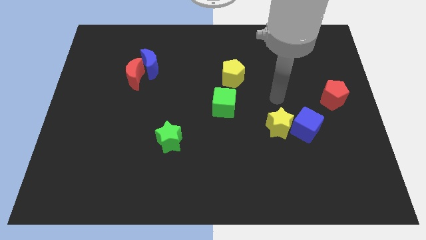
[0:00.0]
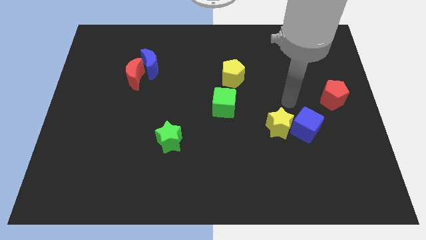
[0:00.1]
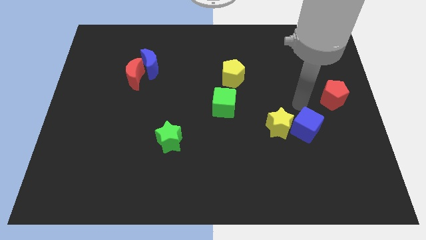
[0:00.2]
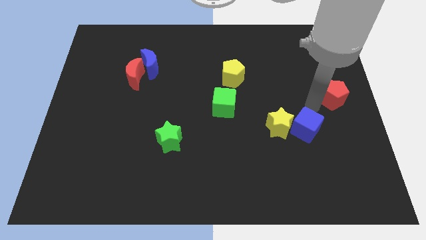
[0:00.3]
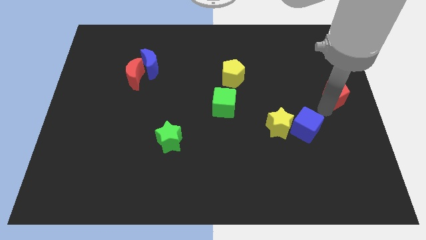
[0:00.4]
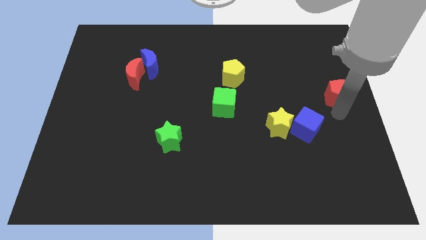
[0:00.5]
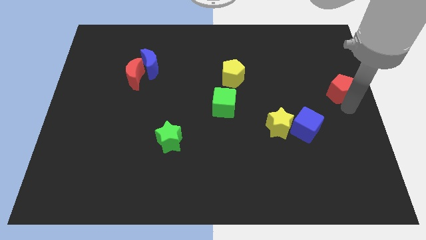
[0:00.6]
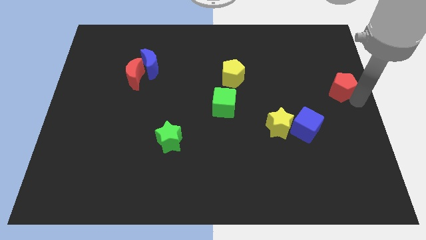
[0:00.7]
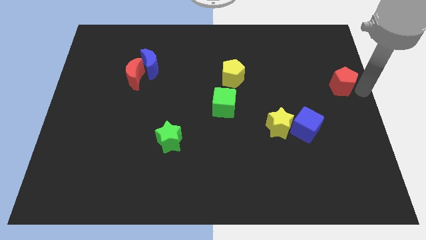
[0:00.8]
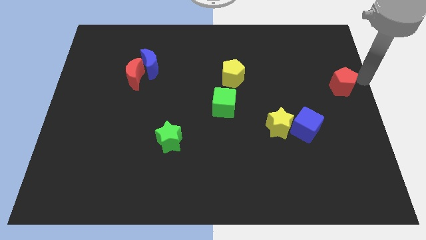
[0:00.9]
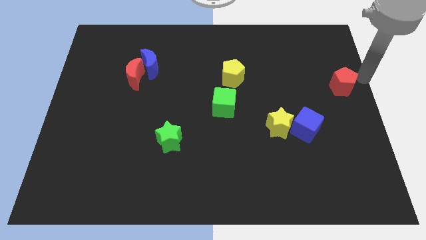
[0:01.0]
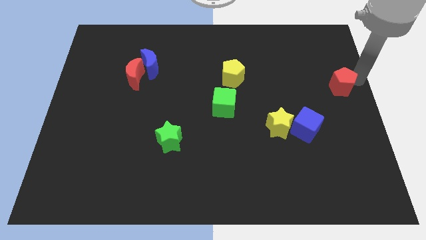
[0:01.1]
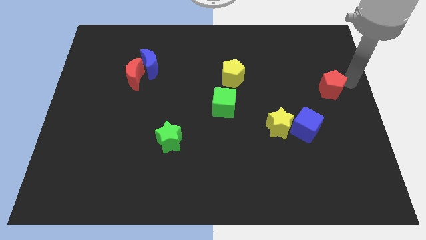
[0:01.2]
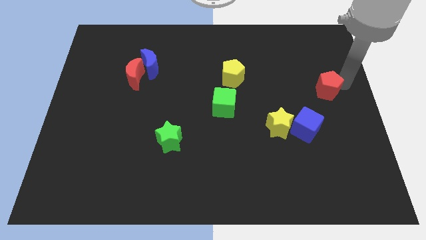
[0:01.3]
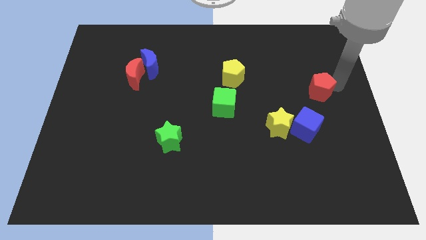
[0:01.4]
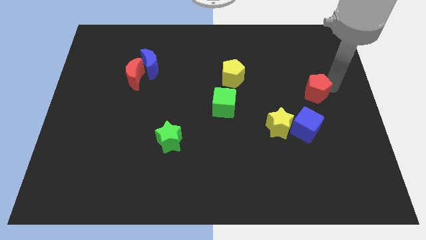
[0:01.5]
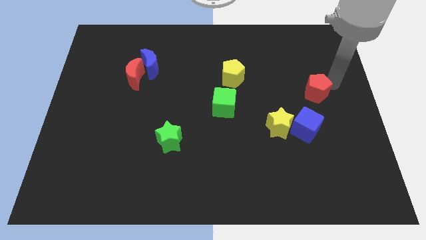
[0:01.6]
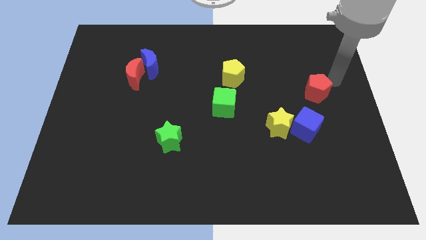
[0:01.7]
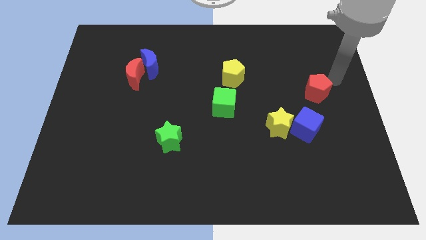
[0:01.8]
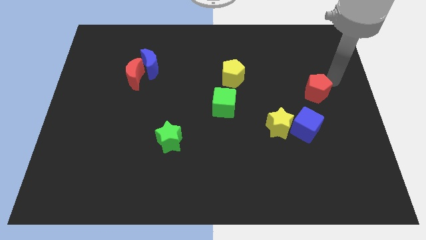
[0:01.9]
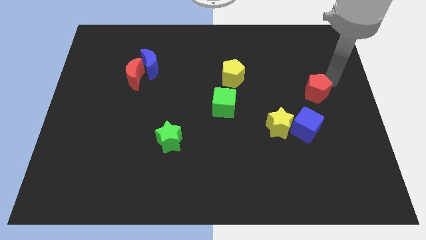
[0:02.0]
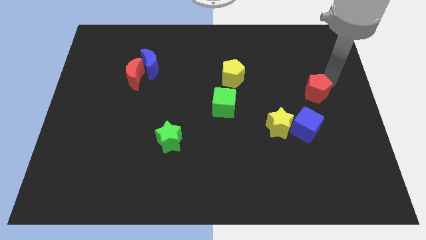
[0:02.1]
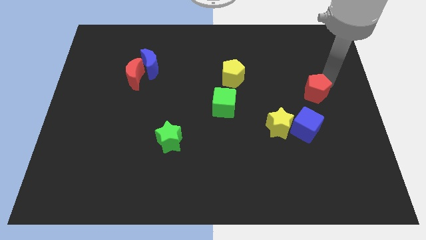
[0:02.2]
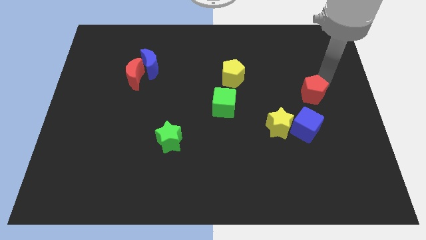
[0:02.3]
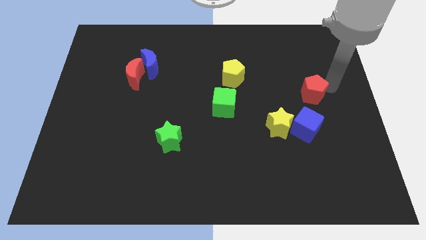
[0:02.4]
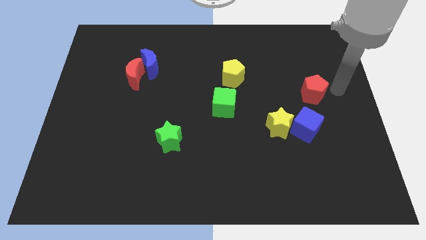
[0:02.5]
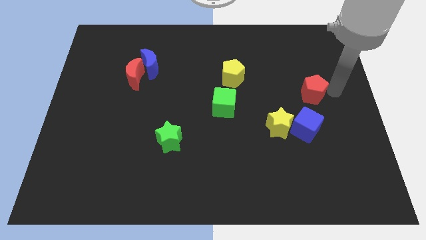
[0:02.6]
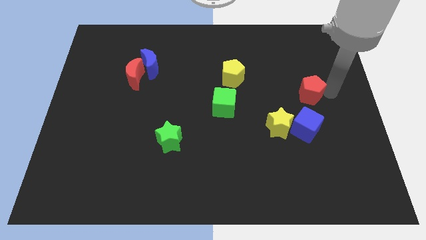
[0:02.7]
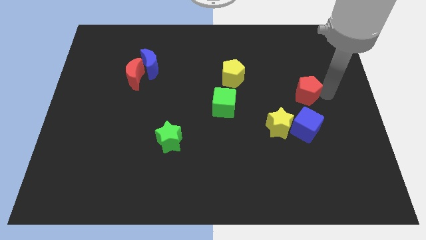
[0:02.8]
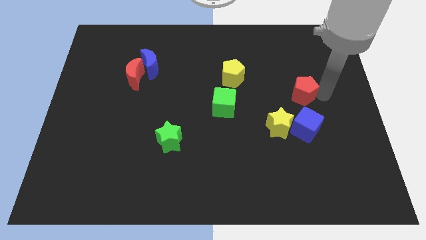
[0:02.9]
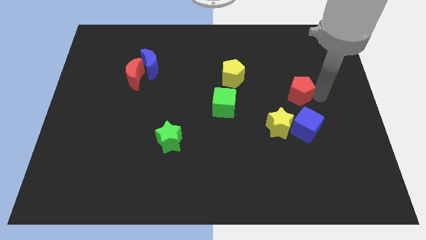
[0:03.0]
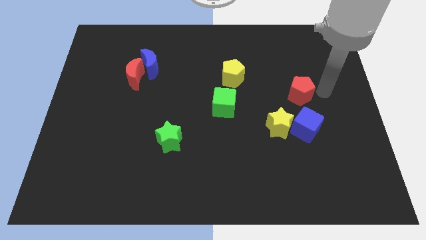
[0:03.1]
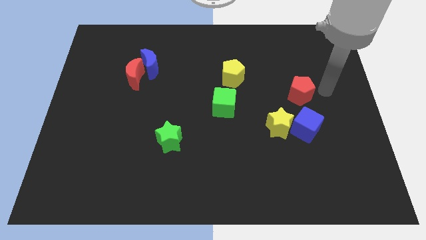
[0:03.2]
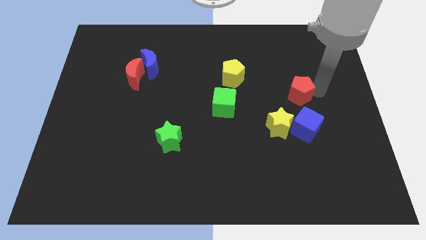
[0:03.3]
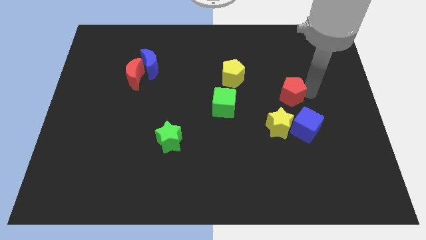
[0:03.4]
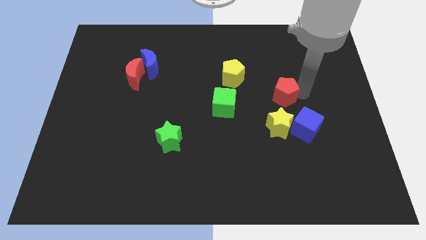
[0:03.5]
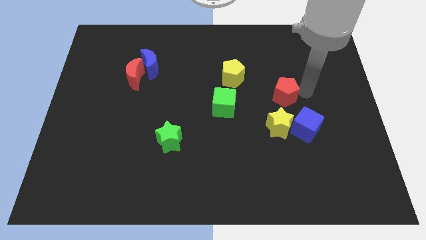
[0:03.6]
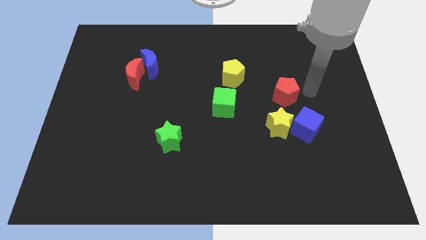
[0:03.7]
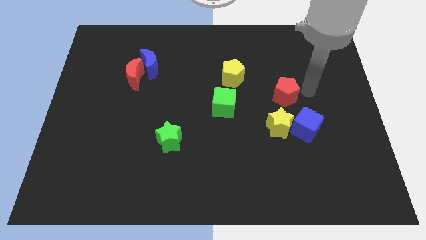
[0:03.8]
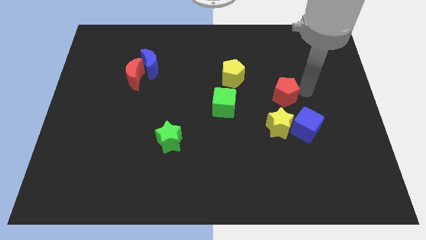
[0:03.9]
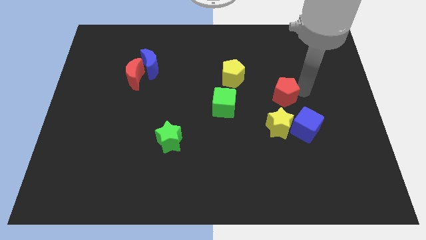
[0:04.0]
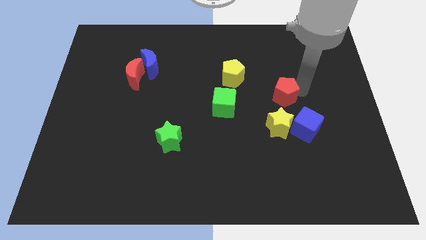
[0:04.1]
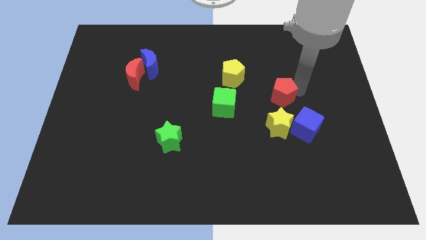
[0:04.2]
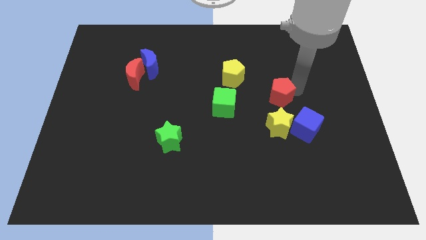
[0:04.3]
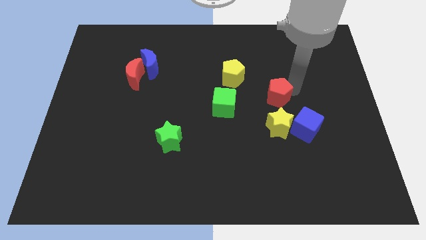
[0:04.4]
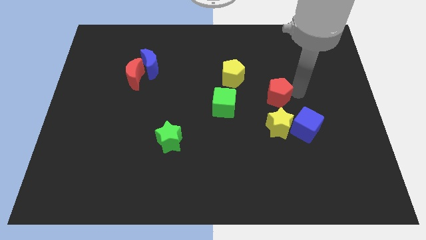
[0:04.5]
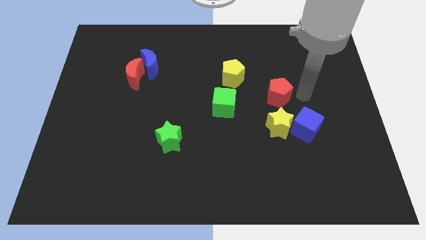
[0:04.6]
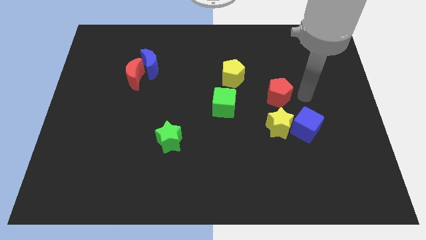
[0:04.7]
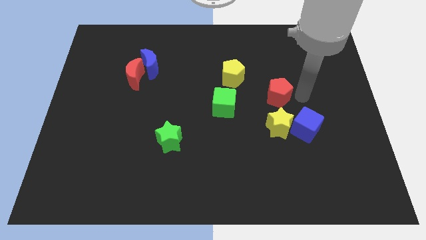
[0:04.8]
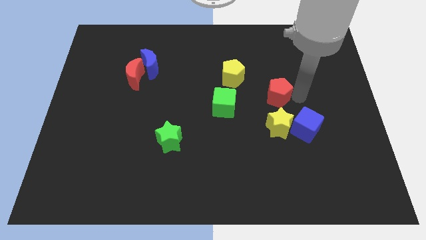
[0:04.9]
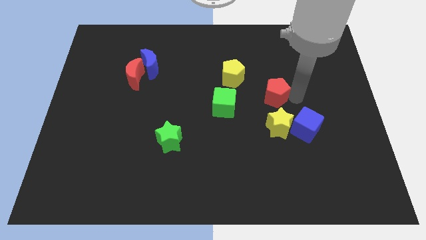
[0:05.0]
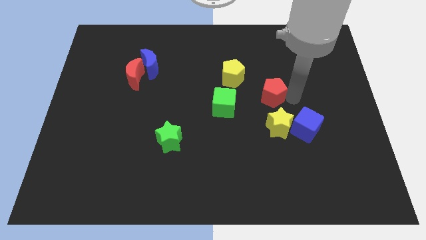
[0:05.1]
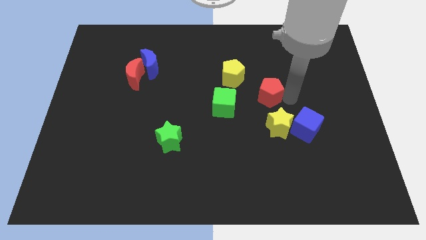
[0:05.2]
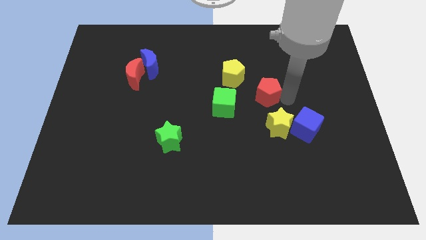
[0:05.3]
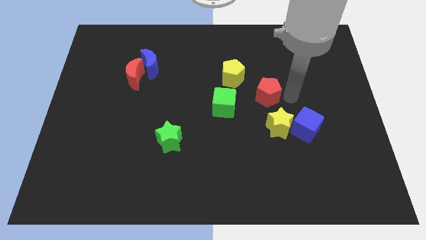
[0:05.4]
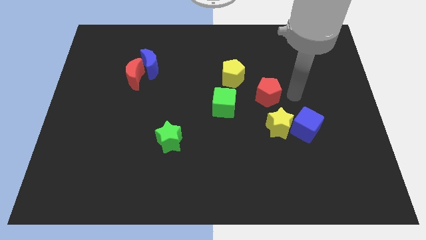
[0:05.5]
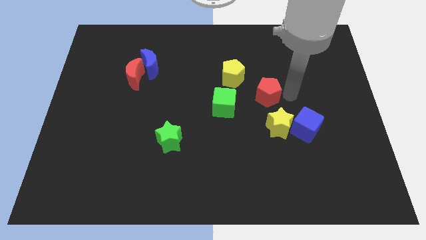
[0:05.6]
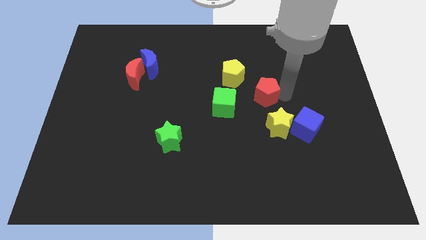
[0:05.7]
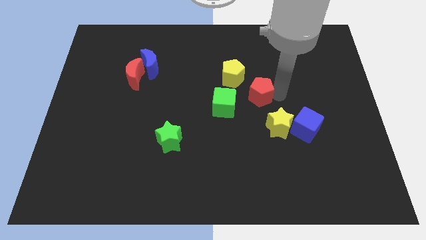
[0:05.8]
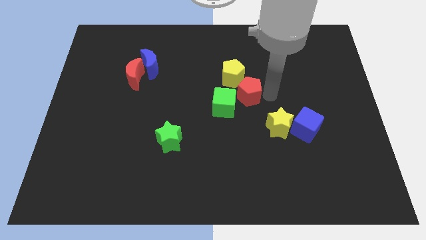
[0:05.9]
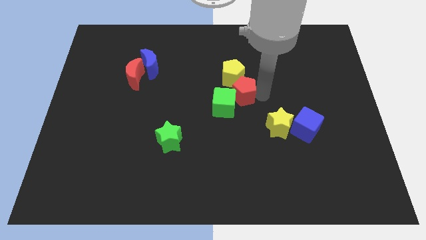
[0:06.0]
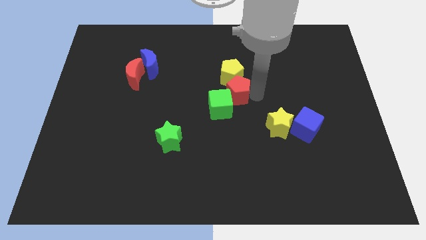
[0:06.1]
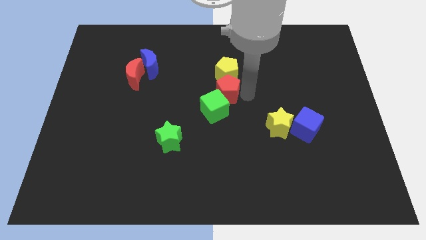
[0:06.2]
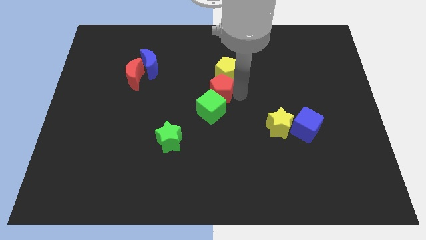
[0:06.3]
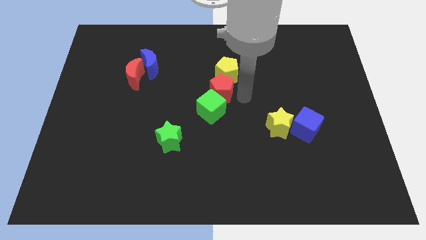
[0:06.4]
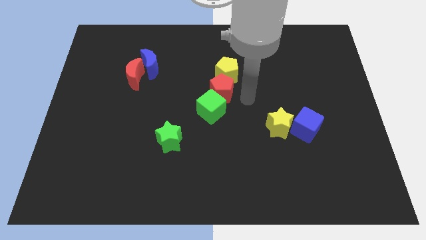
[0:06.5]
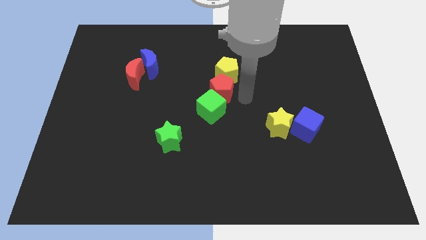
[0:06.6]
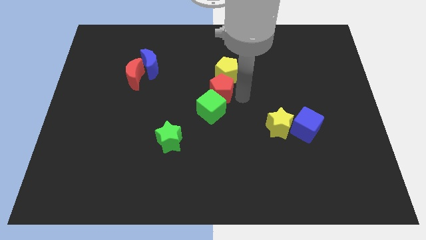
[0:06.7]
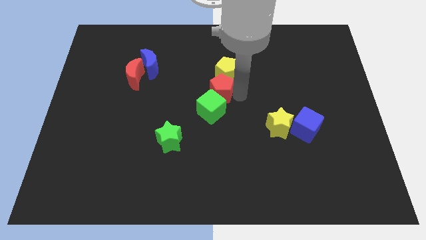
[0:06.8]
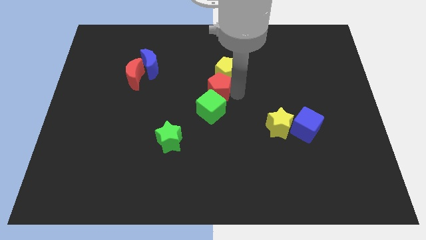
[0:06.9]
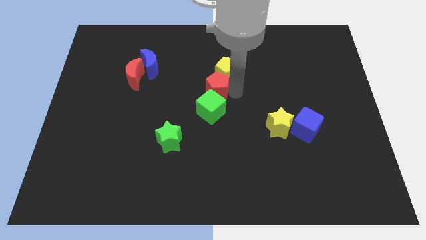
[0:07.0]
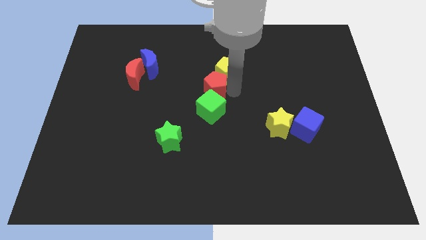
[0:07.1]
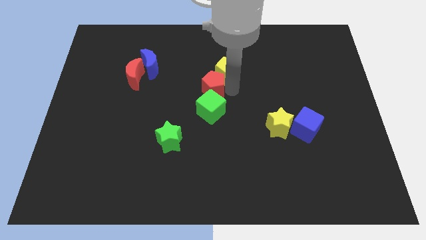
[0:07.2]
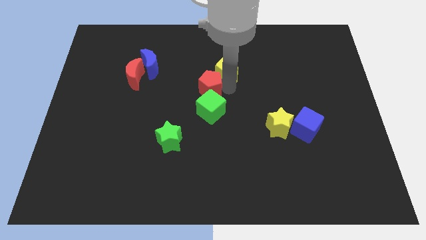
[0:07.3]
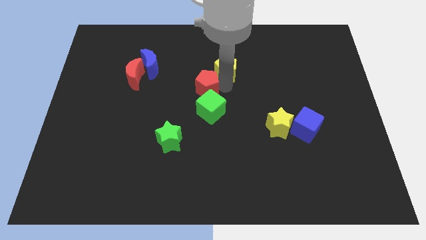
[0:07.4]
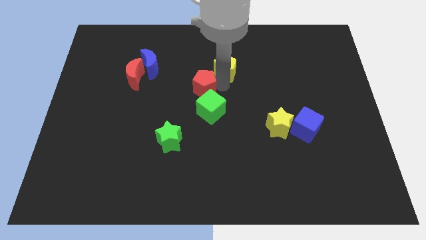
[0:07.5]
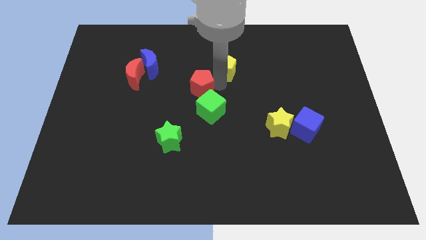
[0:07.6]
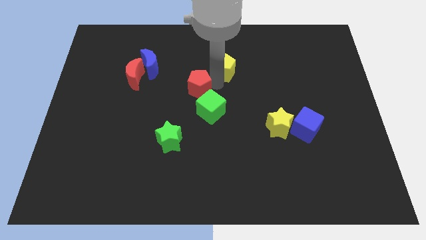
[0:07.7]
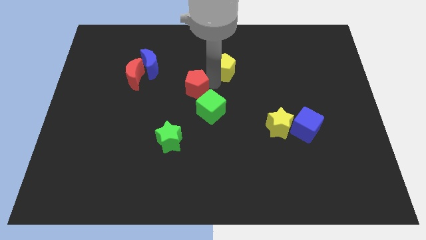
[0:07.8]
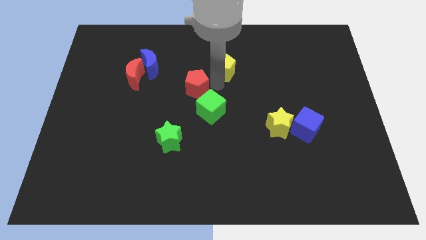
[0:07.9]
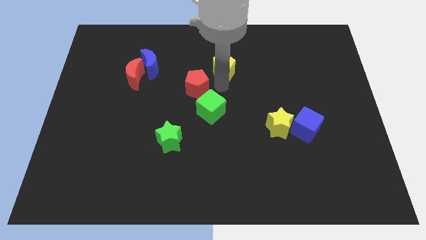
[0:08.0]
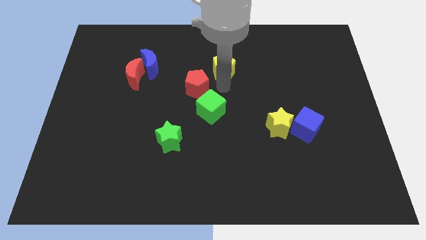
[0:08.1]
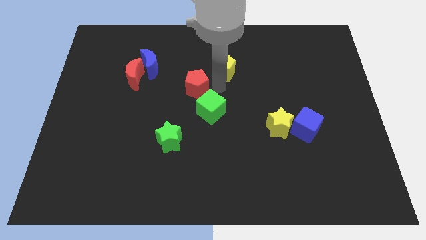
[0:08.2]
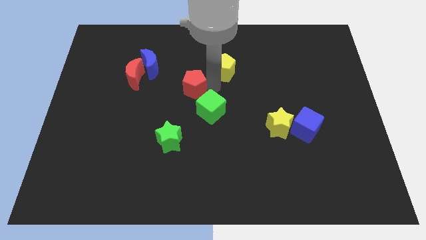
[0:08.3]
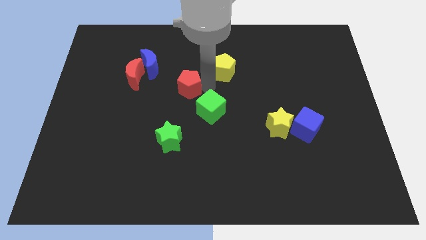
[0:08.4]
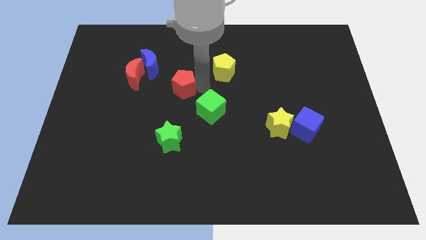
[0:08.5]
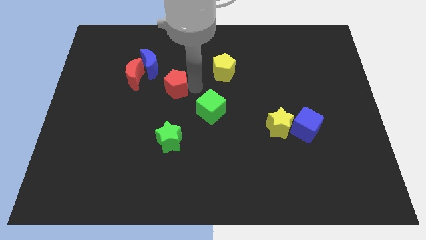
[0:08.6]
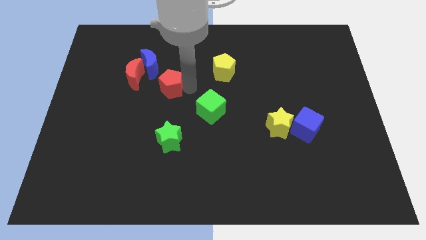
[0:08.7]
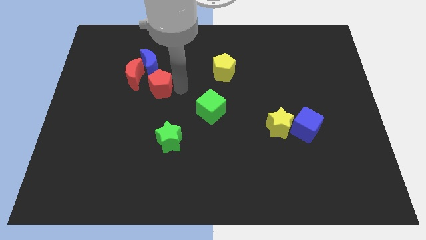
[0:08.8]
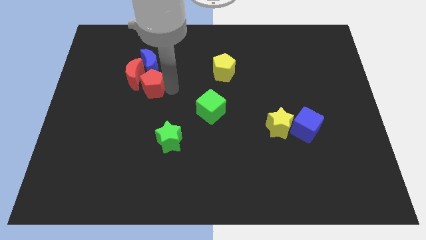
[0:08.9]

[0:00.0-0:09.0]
push the red pentagon to the red moon
